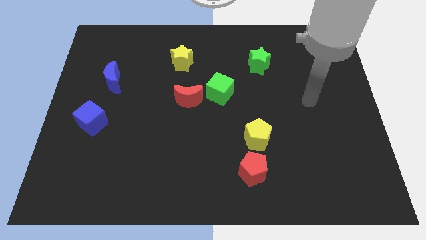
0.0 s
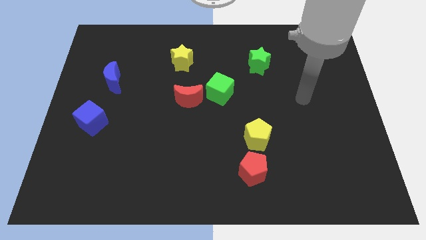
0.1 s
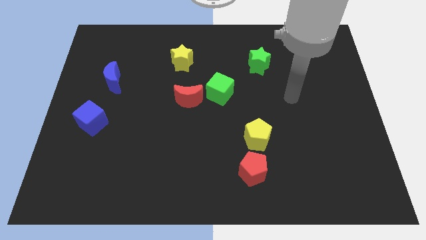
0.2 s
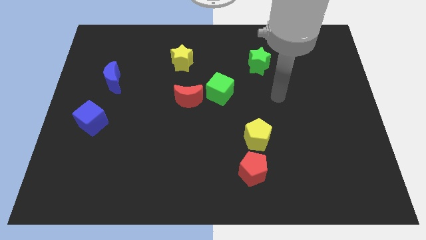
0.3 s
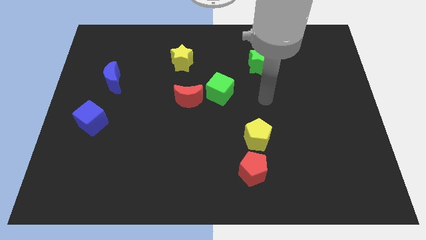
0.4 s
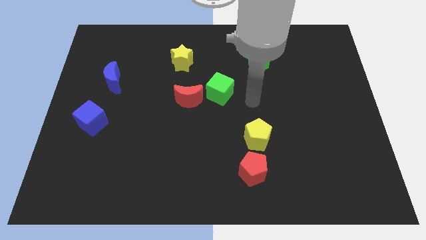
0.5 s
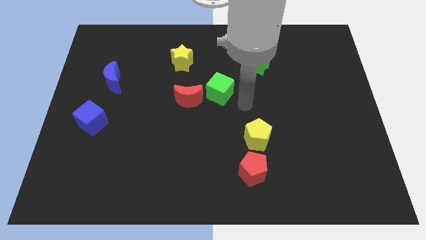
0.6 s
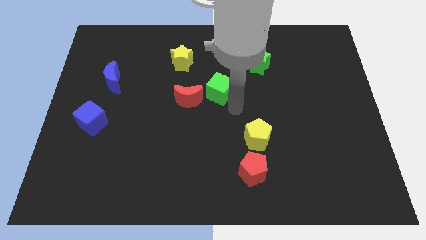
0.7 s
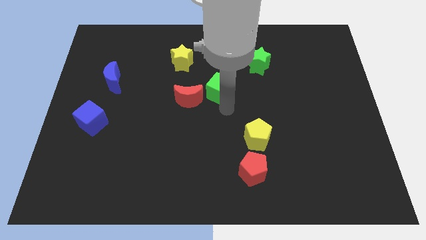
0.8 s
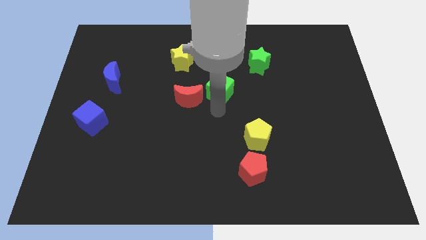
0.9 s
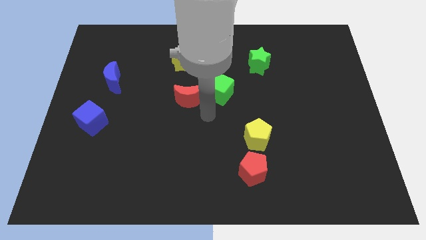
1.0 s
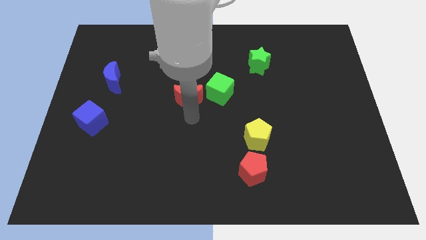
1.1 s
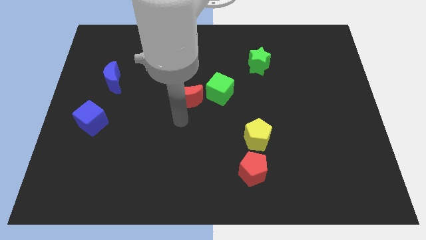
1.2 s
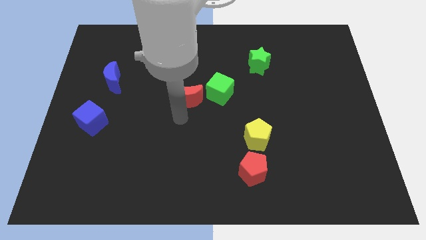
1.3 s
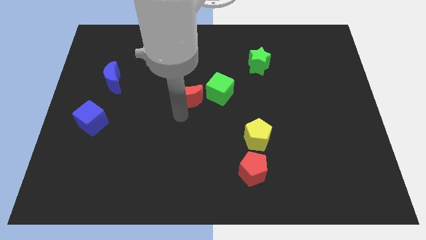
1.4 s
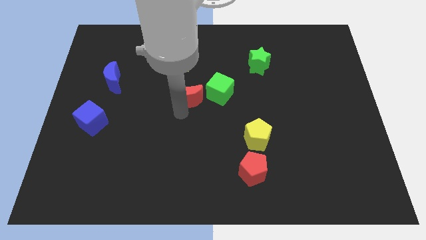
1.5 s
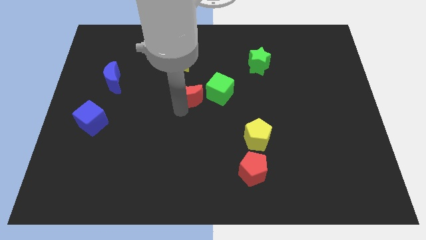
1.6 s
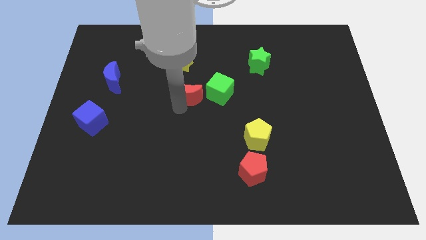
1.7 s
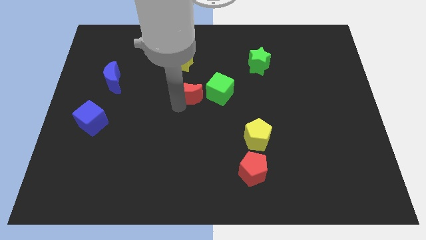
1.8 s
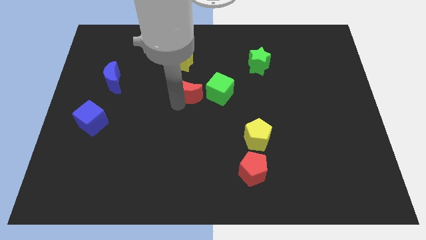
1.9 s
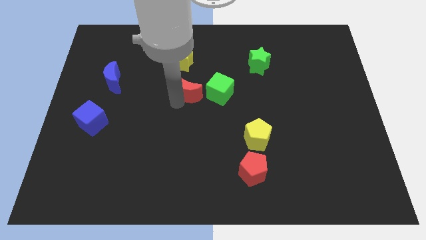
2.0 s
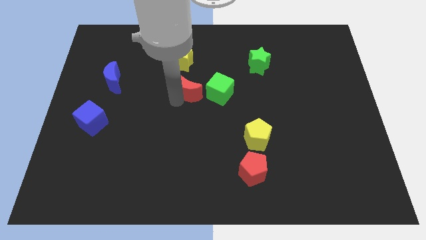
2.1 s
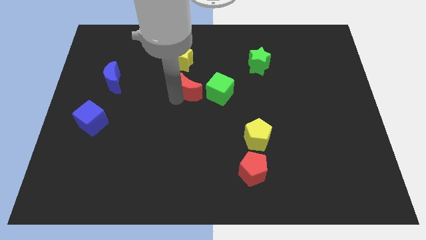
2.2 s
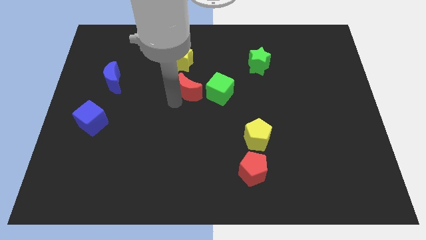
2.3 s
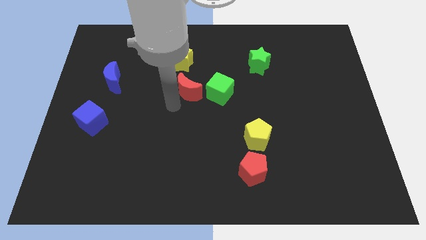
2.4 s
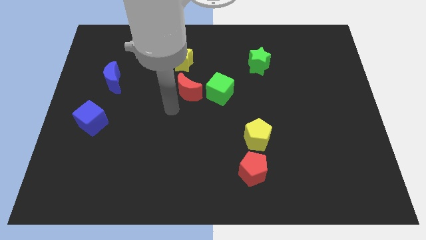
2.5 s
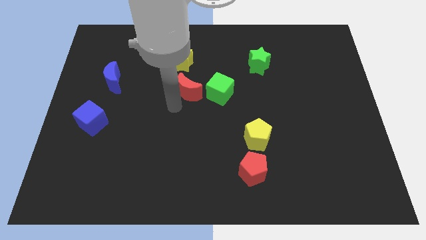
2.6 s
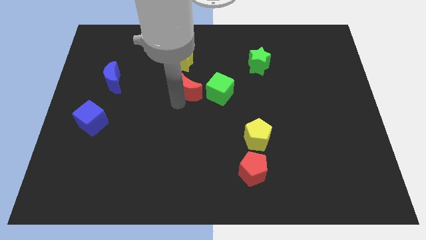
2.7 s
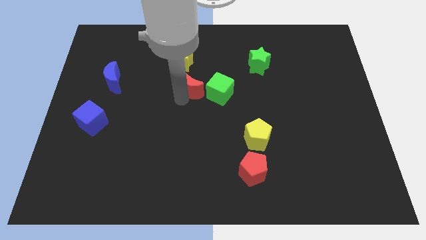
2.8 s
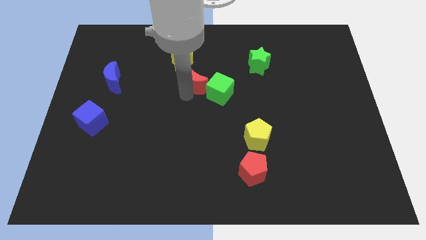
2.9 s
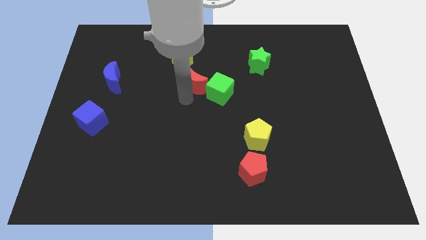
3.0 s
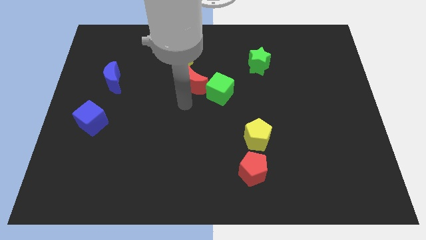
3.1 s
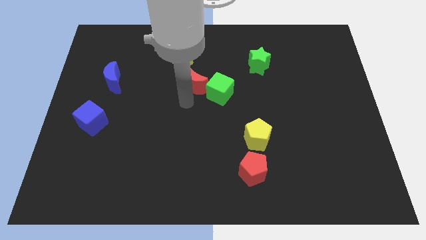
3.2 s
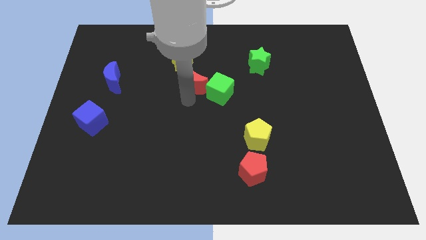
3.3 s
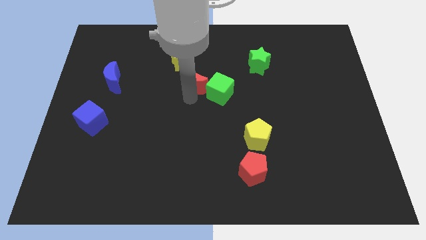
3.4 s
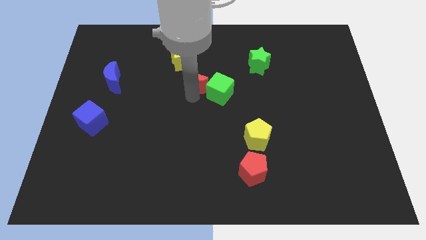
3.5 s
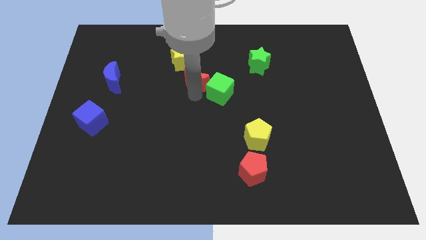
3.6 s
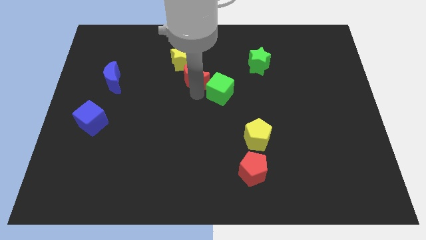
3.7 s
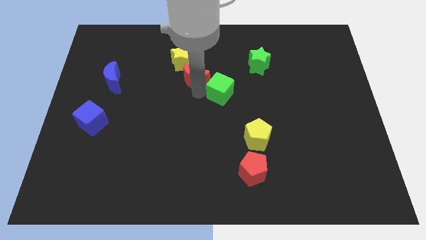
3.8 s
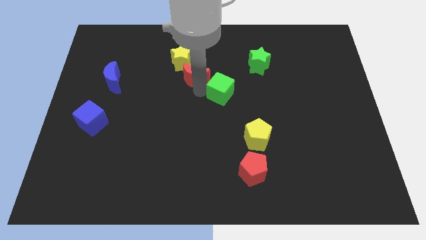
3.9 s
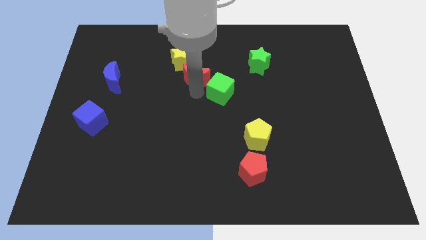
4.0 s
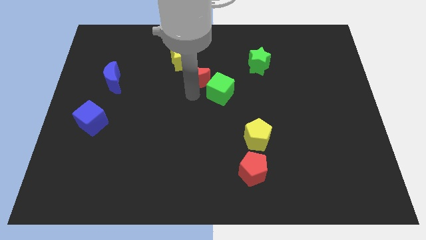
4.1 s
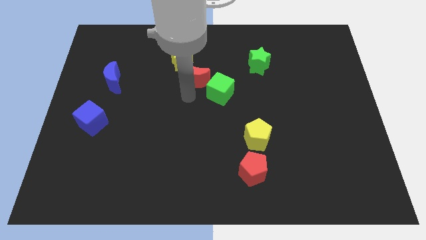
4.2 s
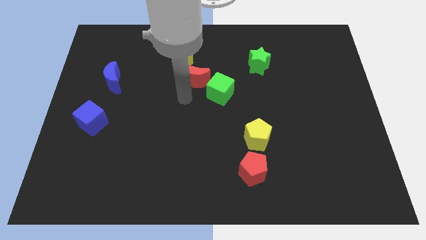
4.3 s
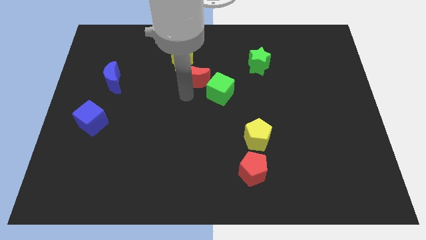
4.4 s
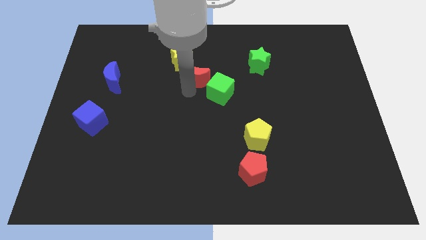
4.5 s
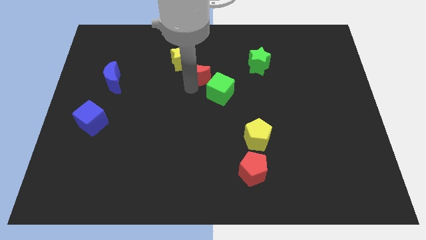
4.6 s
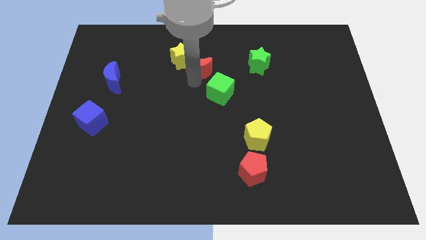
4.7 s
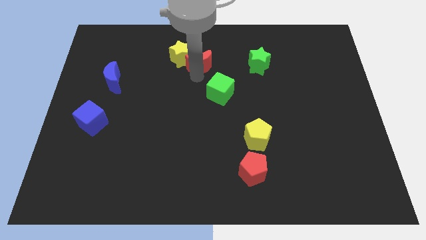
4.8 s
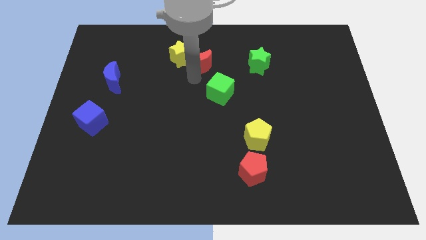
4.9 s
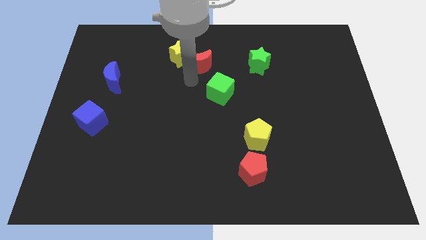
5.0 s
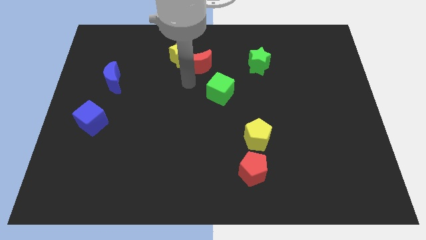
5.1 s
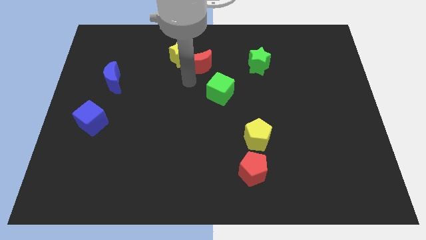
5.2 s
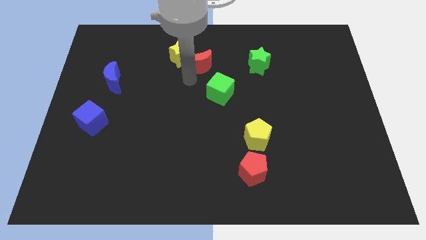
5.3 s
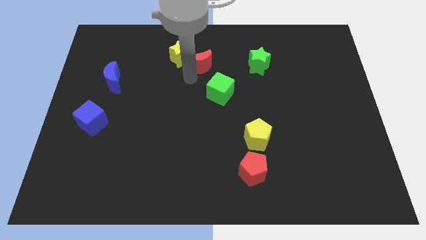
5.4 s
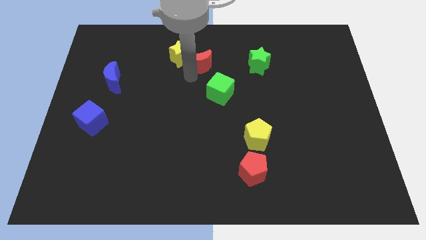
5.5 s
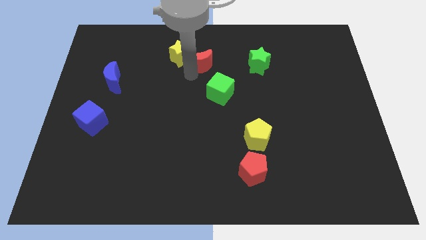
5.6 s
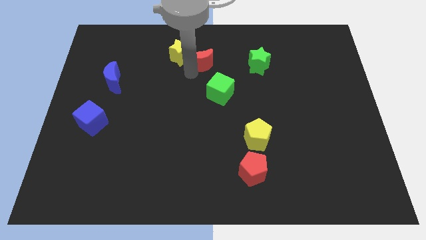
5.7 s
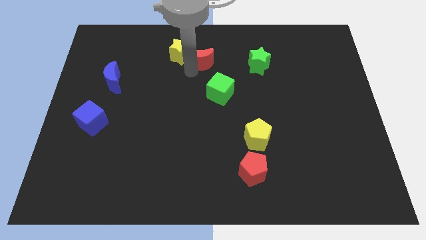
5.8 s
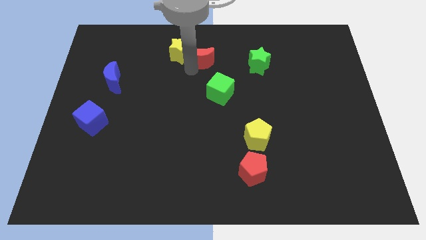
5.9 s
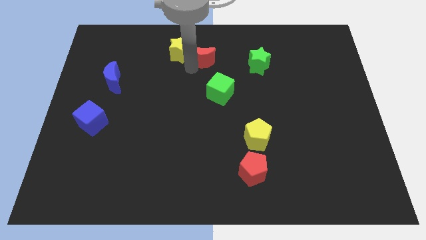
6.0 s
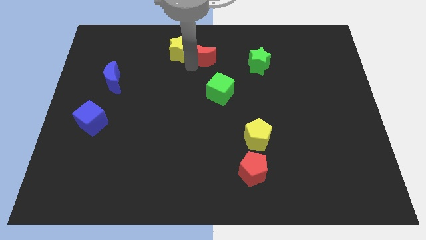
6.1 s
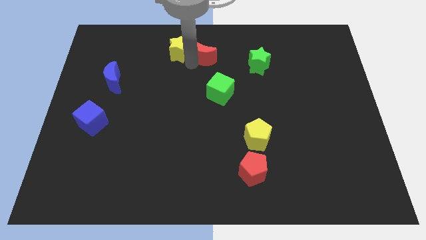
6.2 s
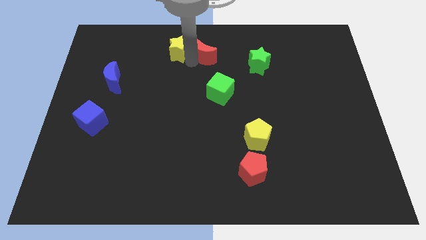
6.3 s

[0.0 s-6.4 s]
push the red moon to the towards your base

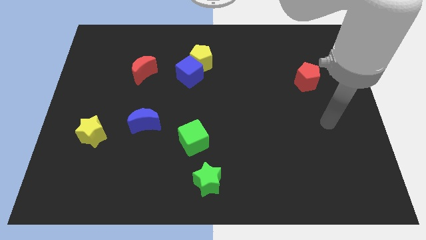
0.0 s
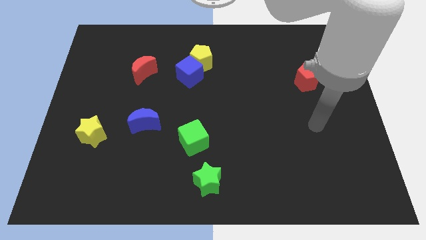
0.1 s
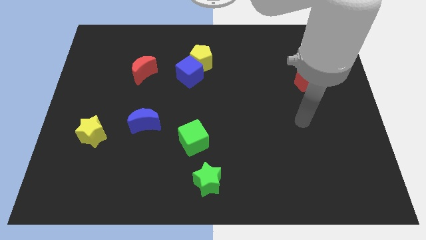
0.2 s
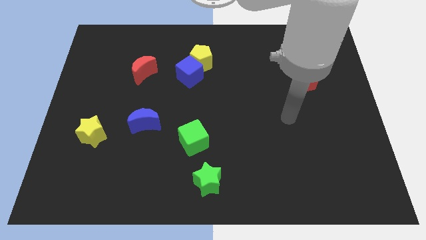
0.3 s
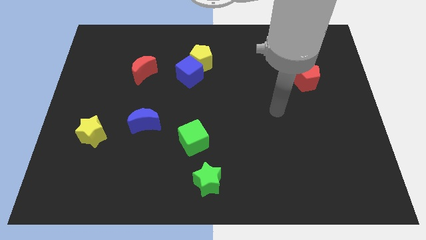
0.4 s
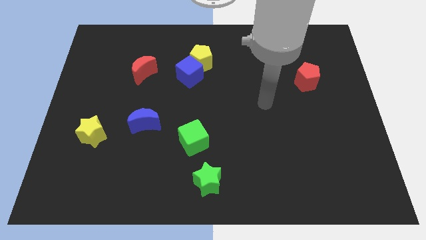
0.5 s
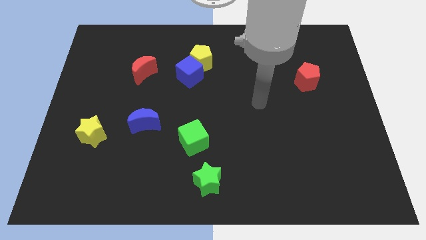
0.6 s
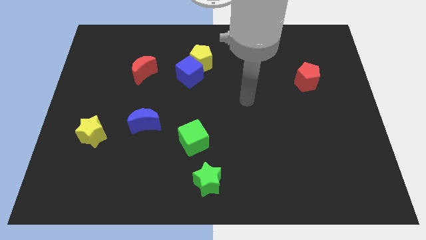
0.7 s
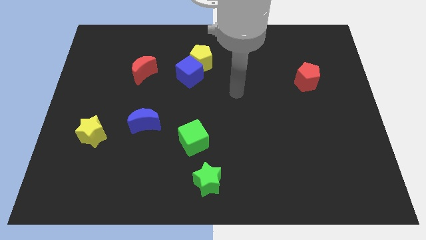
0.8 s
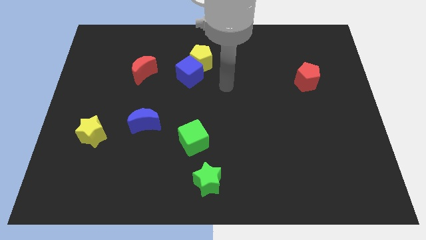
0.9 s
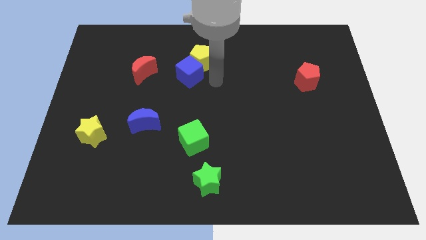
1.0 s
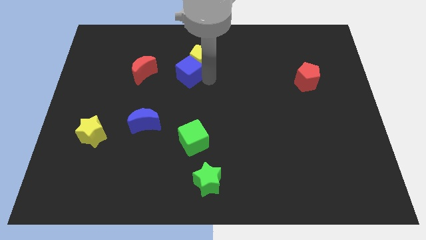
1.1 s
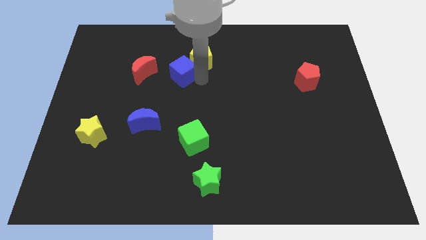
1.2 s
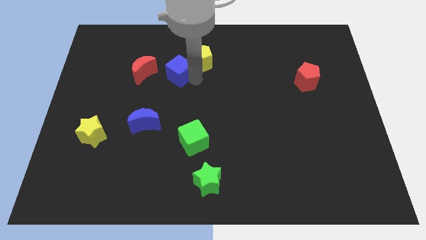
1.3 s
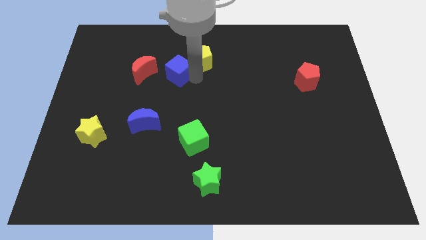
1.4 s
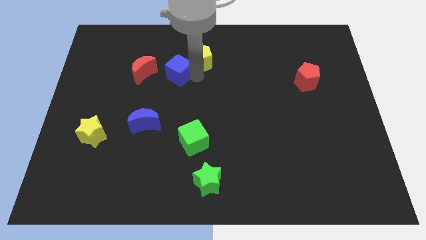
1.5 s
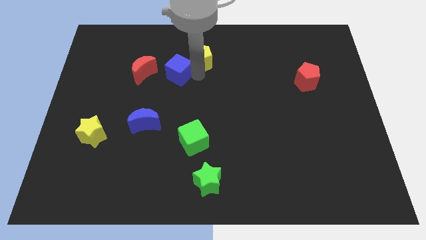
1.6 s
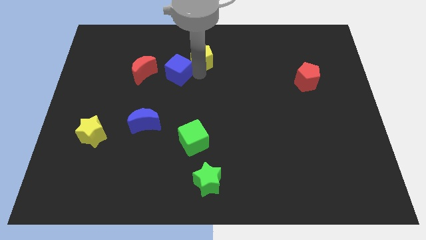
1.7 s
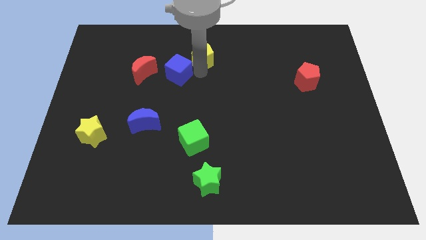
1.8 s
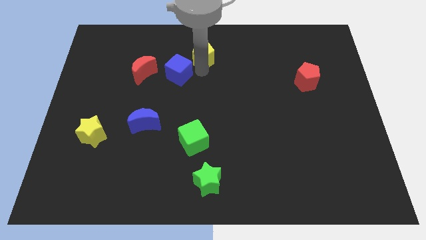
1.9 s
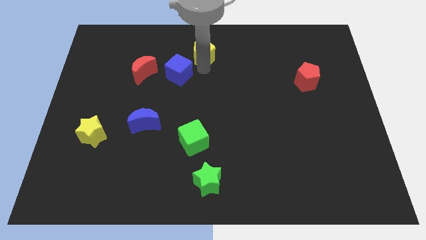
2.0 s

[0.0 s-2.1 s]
move the yellow pentagon to the towards your base
